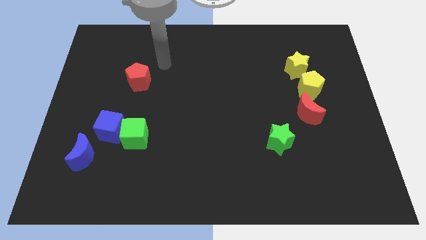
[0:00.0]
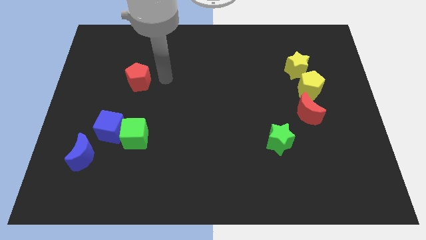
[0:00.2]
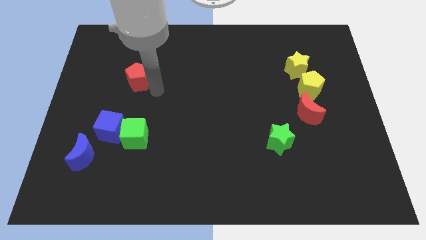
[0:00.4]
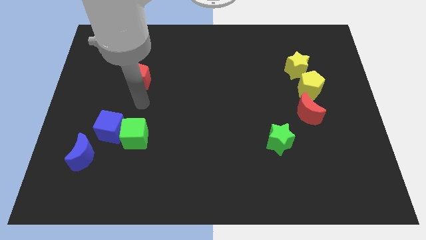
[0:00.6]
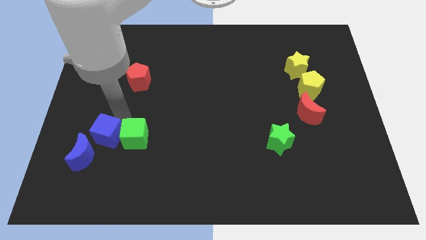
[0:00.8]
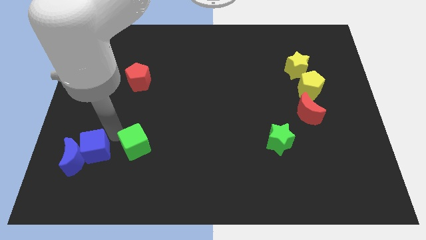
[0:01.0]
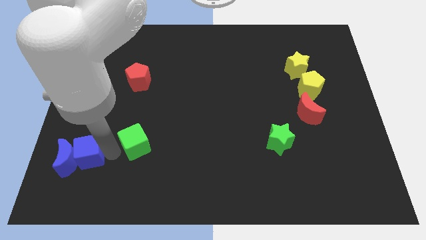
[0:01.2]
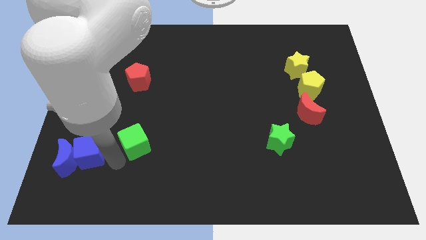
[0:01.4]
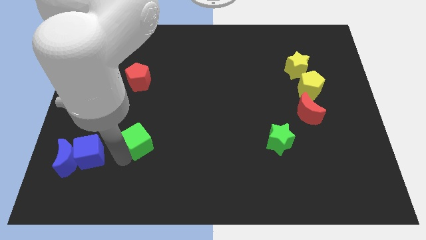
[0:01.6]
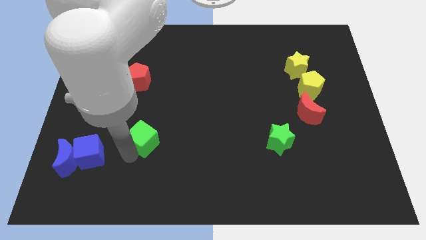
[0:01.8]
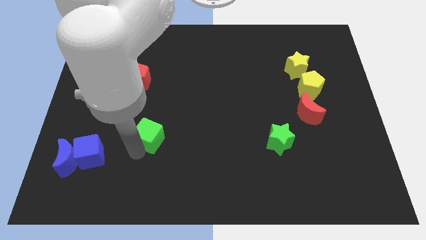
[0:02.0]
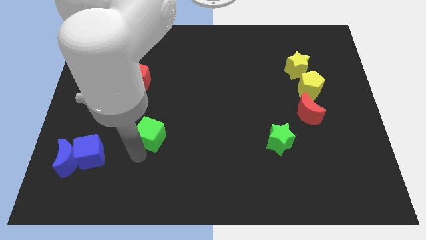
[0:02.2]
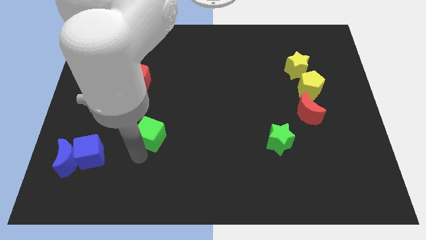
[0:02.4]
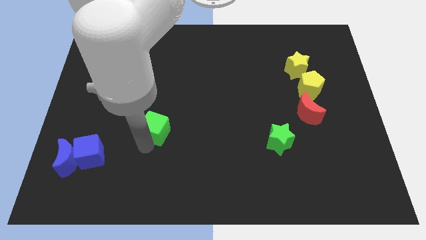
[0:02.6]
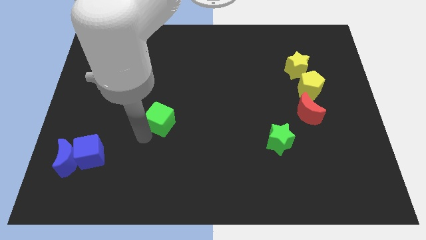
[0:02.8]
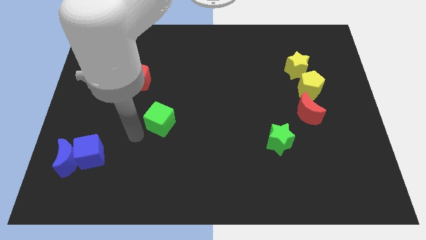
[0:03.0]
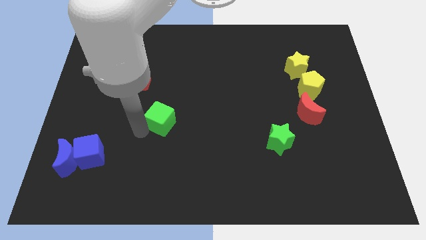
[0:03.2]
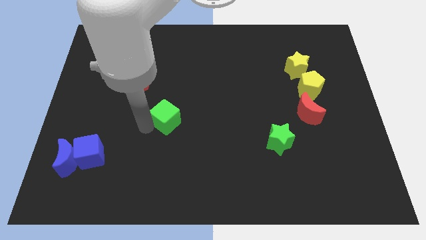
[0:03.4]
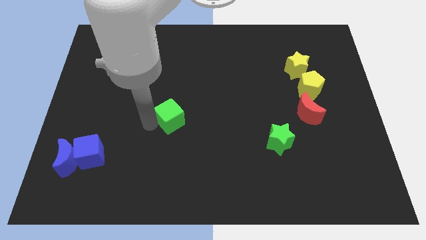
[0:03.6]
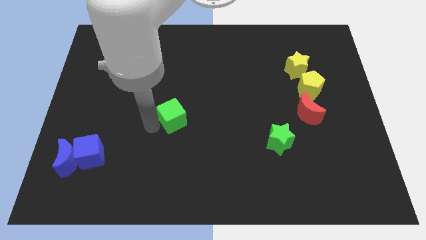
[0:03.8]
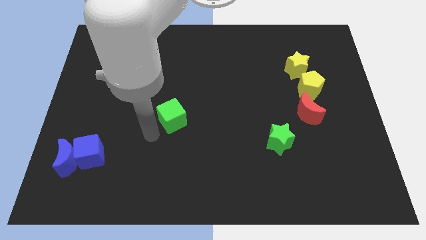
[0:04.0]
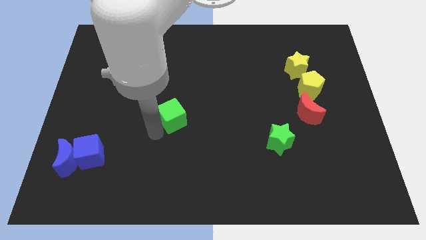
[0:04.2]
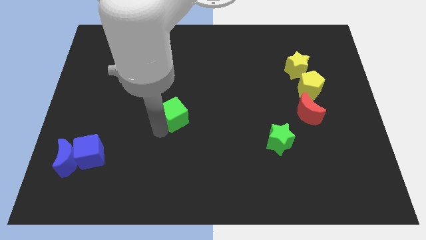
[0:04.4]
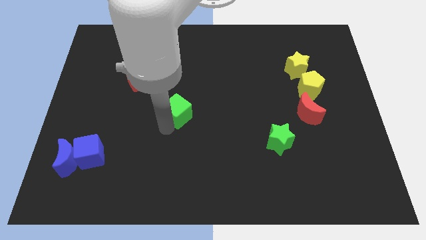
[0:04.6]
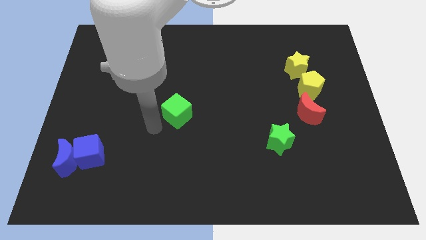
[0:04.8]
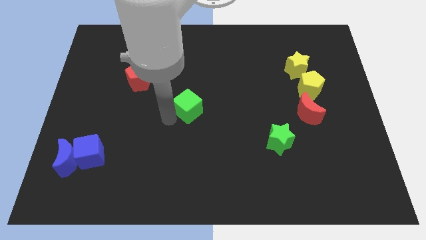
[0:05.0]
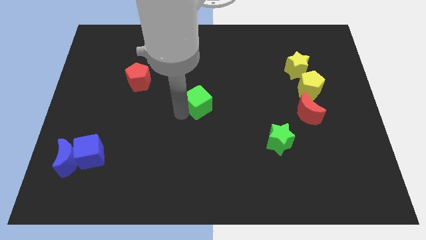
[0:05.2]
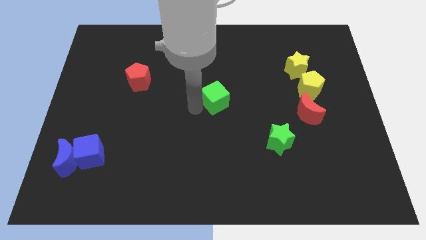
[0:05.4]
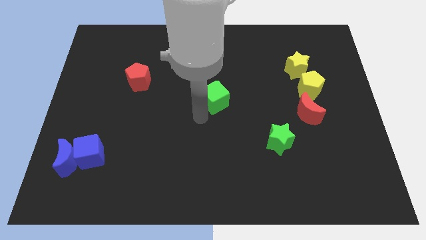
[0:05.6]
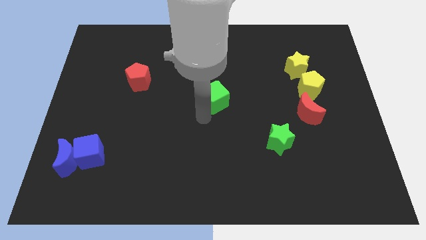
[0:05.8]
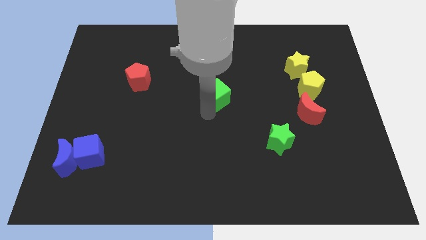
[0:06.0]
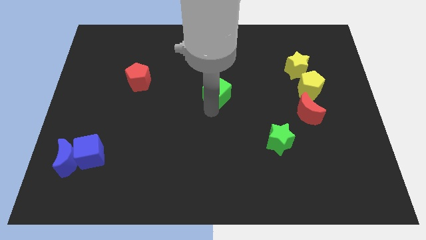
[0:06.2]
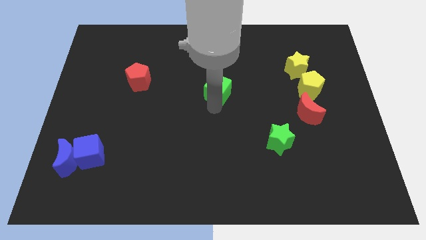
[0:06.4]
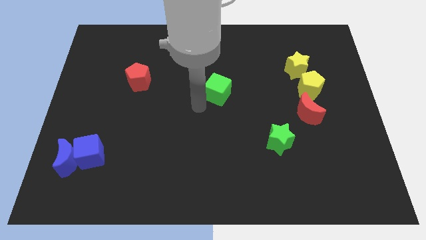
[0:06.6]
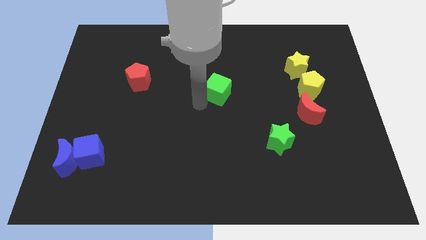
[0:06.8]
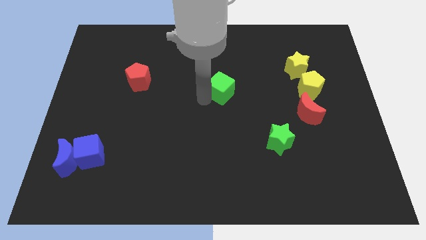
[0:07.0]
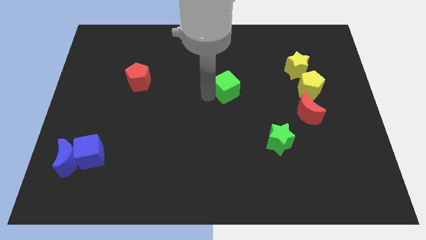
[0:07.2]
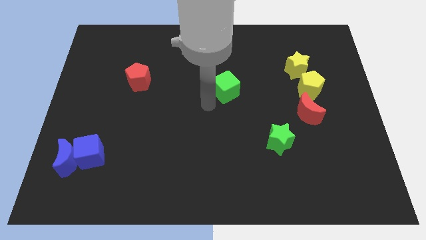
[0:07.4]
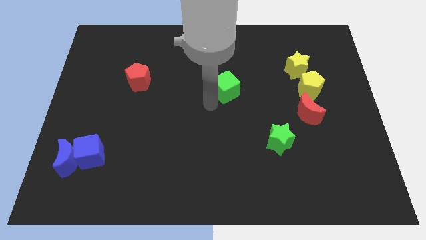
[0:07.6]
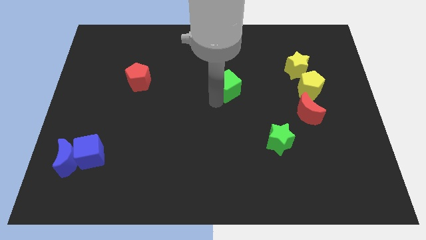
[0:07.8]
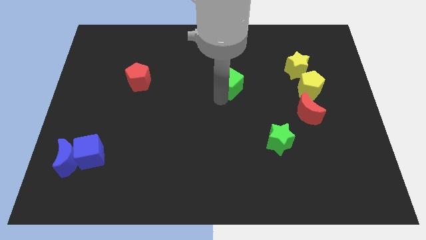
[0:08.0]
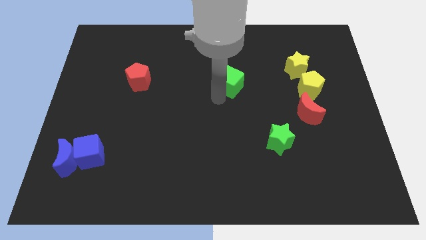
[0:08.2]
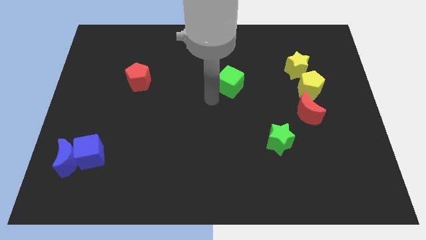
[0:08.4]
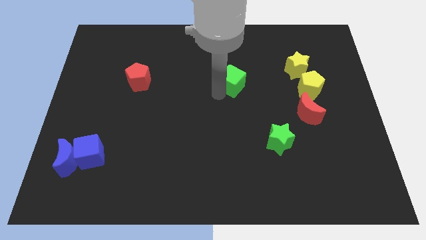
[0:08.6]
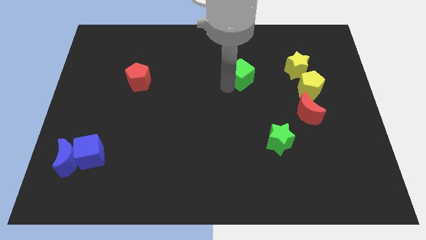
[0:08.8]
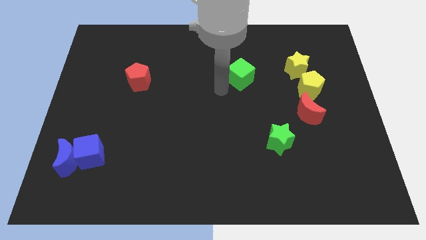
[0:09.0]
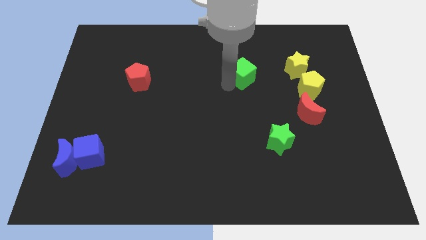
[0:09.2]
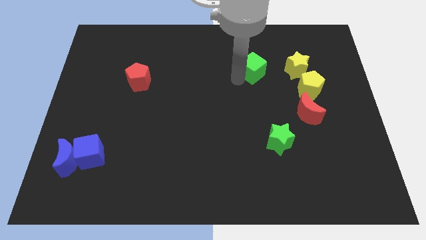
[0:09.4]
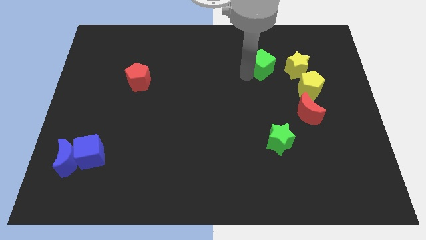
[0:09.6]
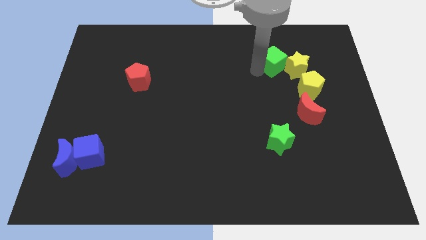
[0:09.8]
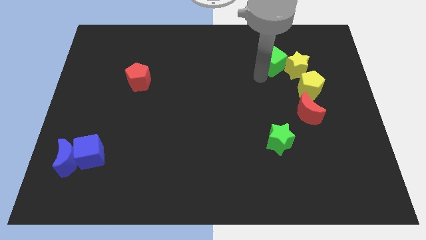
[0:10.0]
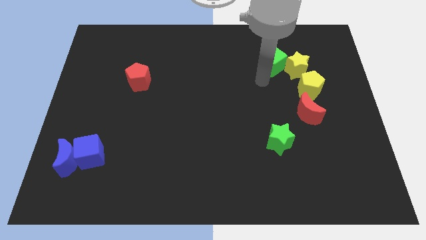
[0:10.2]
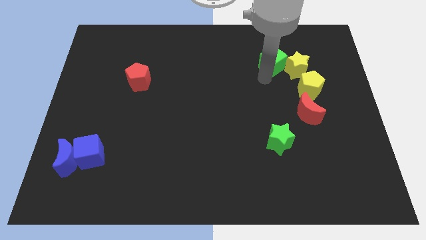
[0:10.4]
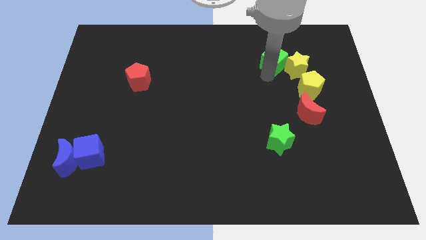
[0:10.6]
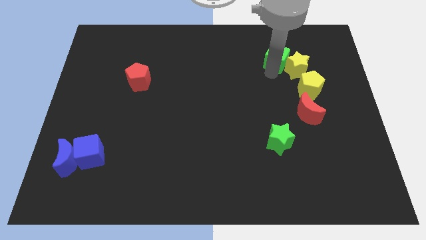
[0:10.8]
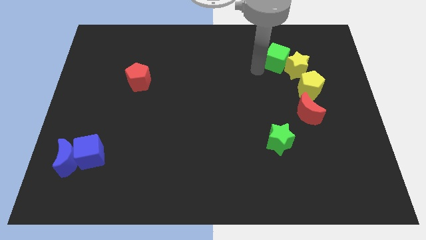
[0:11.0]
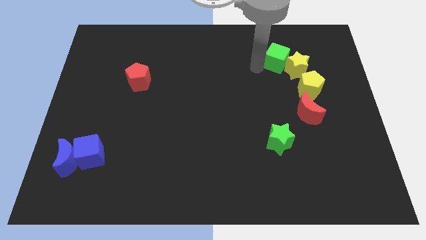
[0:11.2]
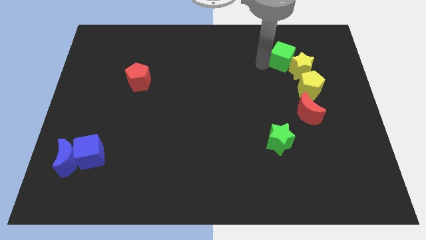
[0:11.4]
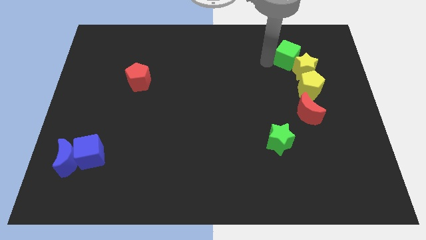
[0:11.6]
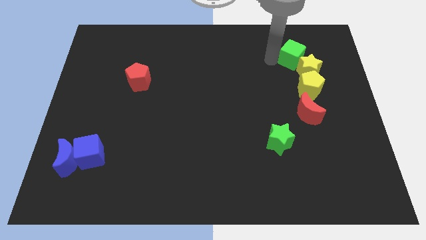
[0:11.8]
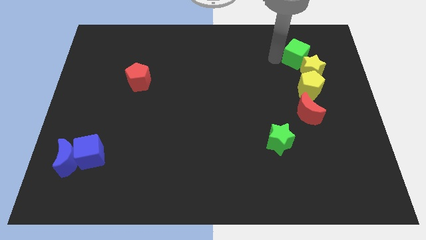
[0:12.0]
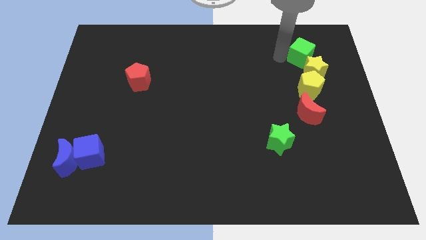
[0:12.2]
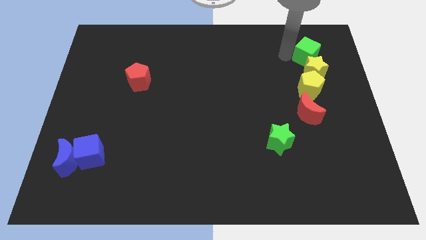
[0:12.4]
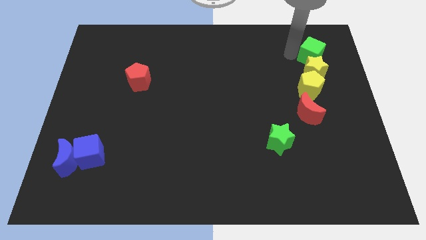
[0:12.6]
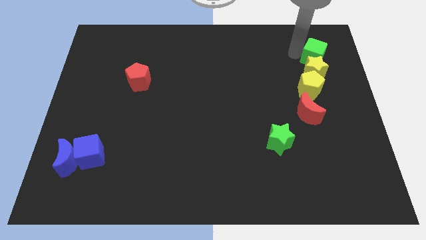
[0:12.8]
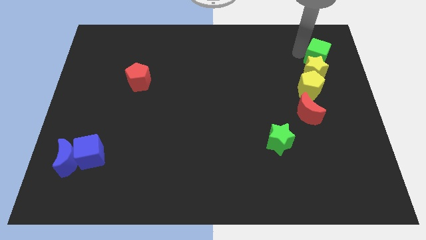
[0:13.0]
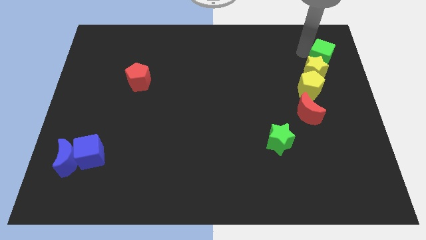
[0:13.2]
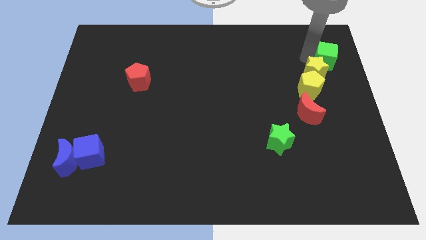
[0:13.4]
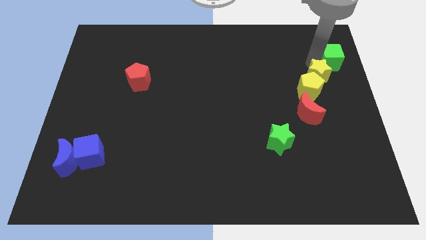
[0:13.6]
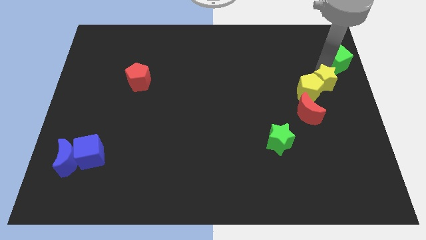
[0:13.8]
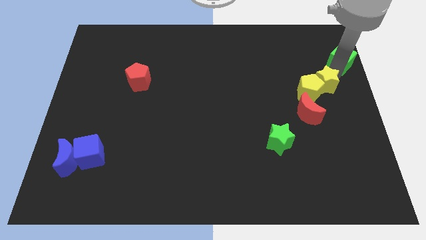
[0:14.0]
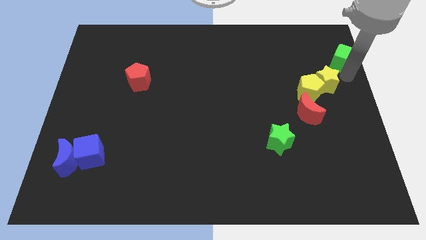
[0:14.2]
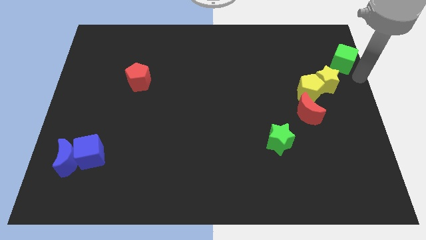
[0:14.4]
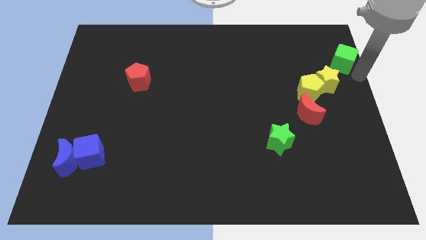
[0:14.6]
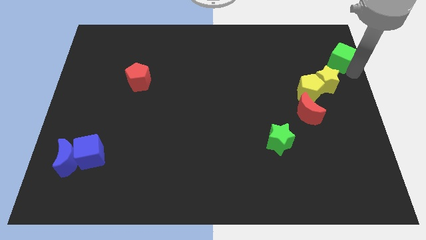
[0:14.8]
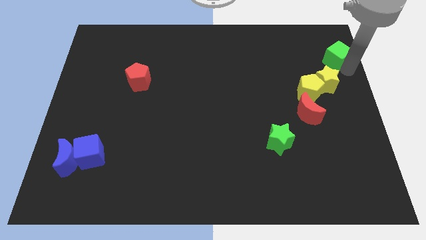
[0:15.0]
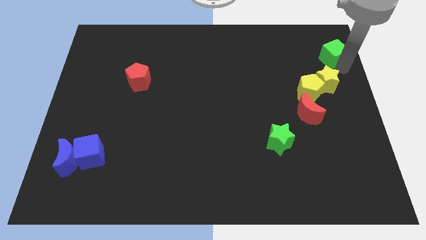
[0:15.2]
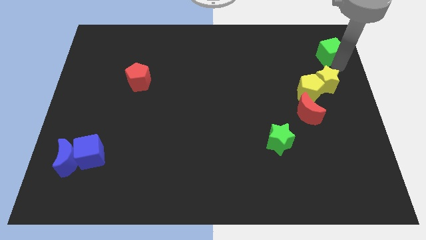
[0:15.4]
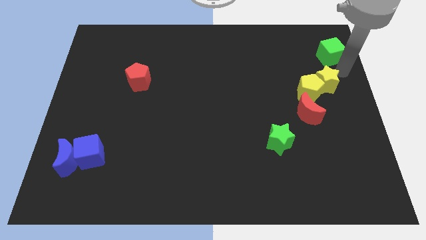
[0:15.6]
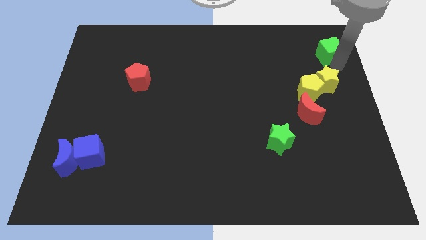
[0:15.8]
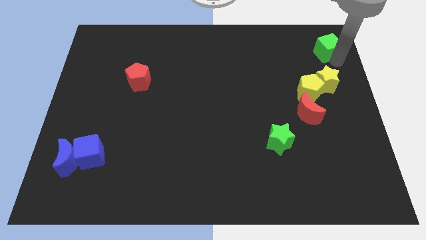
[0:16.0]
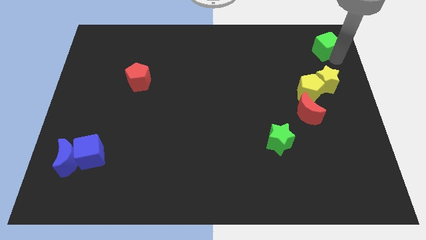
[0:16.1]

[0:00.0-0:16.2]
put the green cube to the top right corner
